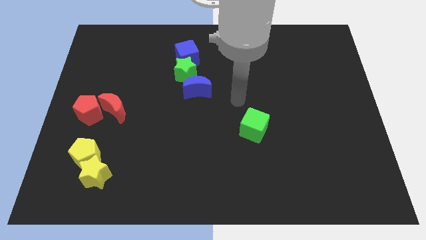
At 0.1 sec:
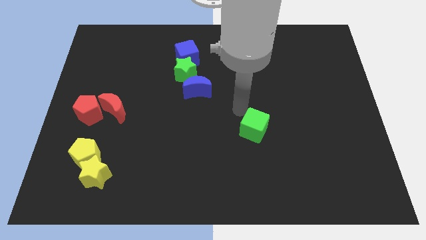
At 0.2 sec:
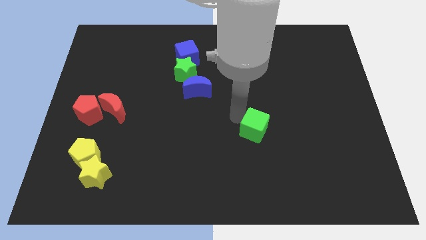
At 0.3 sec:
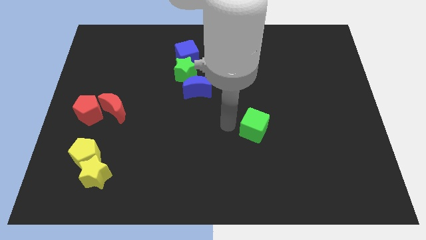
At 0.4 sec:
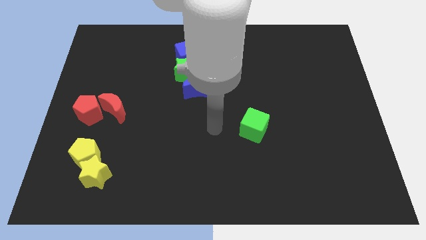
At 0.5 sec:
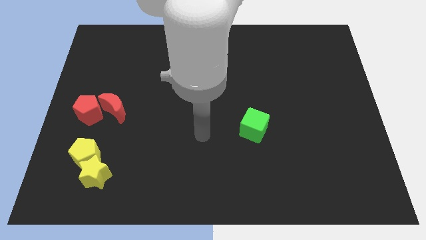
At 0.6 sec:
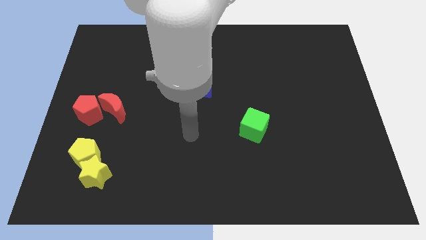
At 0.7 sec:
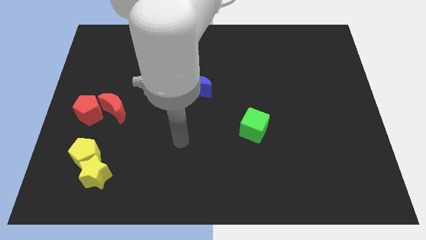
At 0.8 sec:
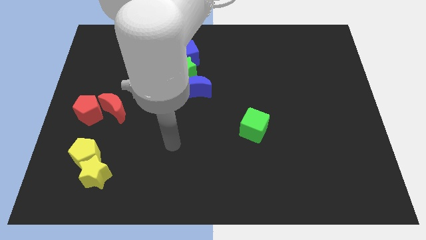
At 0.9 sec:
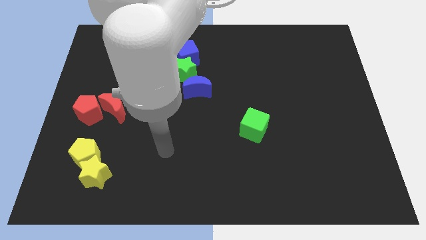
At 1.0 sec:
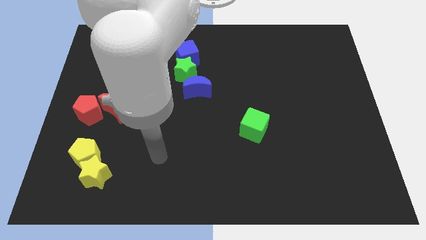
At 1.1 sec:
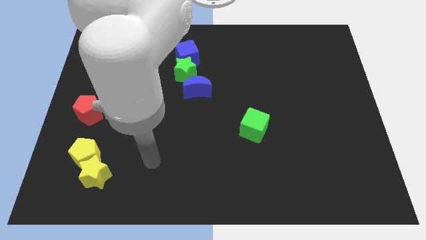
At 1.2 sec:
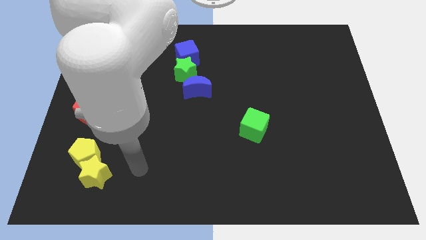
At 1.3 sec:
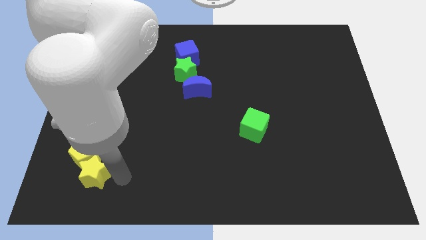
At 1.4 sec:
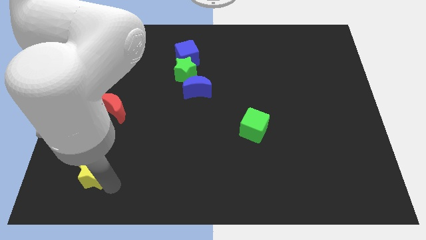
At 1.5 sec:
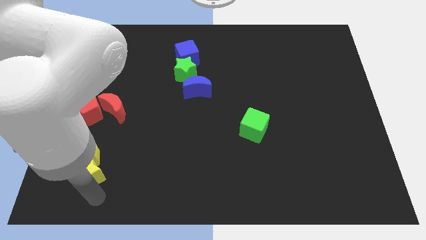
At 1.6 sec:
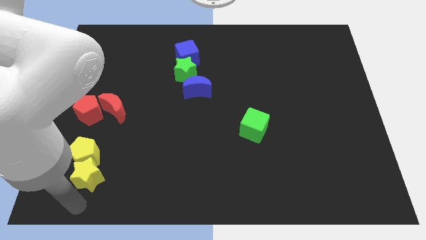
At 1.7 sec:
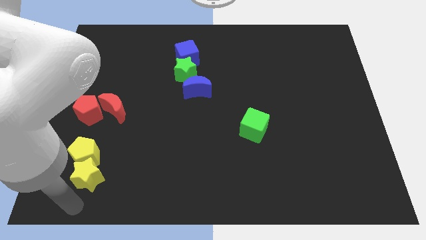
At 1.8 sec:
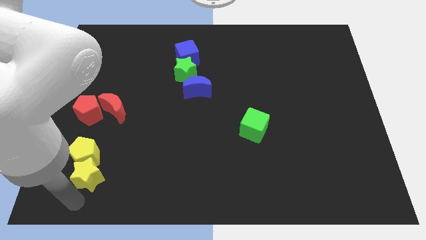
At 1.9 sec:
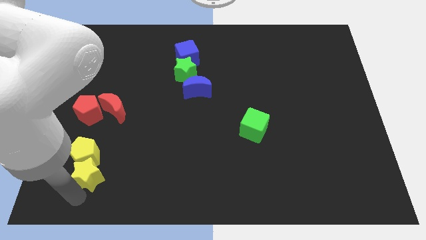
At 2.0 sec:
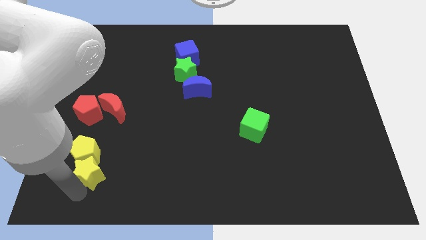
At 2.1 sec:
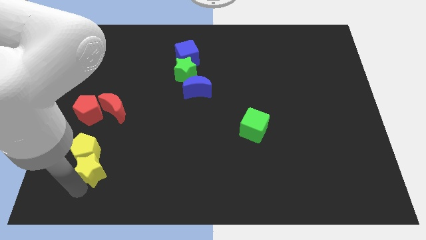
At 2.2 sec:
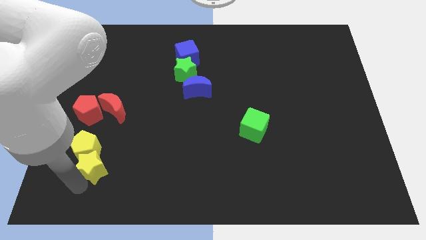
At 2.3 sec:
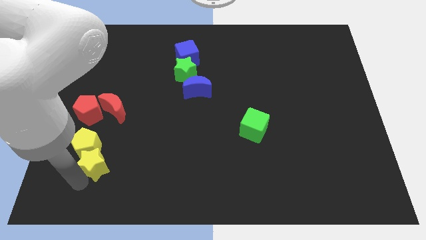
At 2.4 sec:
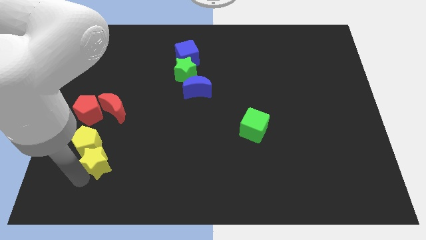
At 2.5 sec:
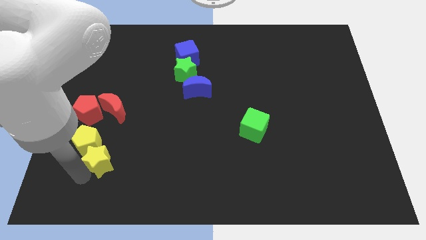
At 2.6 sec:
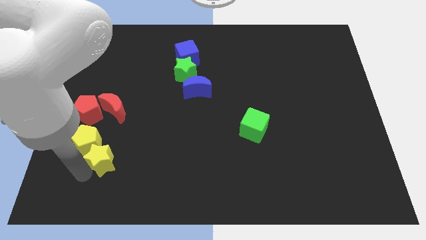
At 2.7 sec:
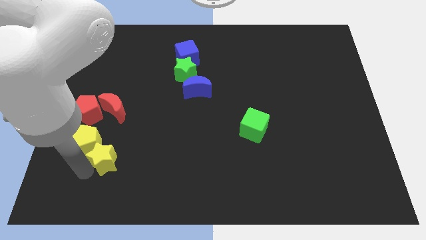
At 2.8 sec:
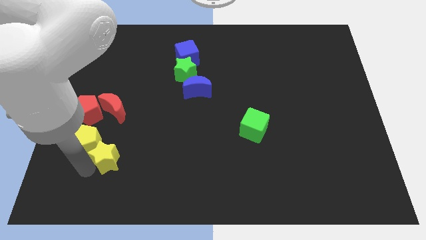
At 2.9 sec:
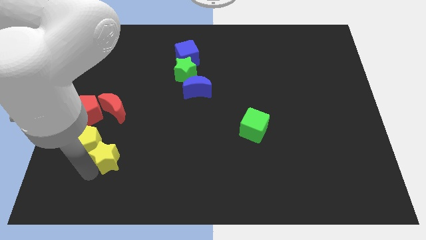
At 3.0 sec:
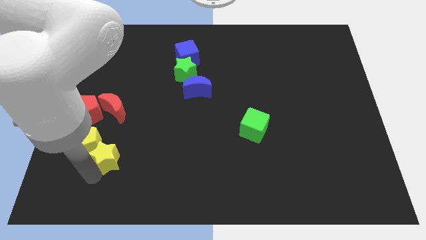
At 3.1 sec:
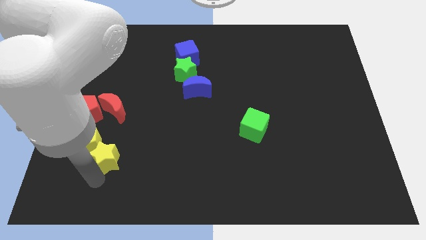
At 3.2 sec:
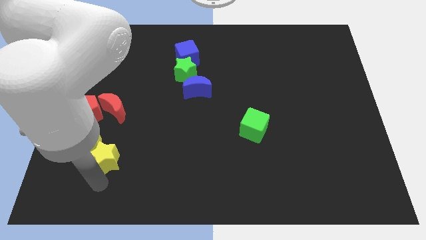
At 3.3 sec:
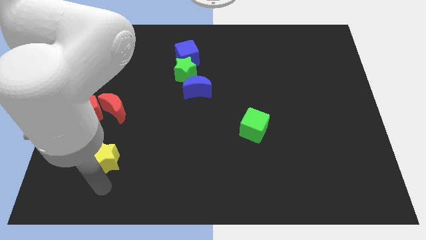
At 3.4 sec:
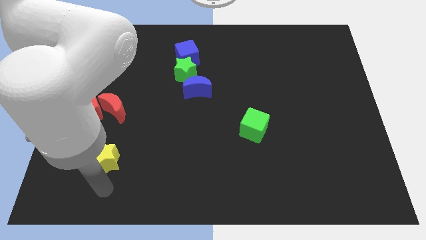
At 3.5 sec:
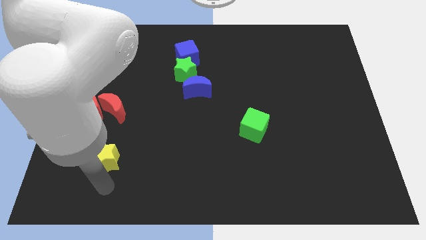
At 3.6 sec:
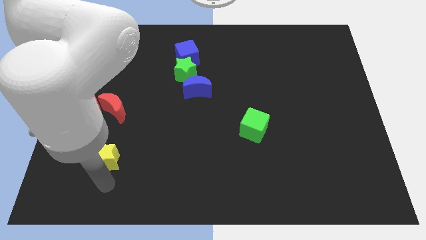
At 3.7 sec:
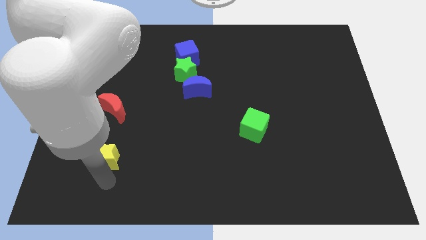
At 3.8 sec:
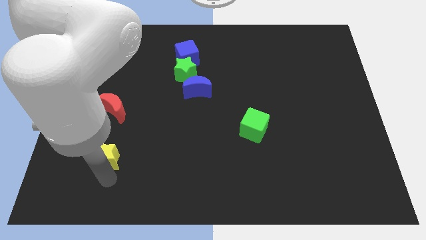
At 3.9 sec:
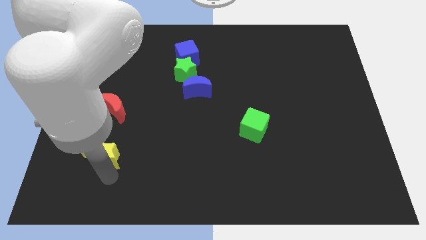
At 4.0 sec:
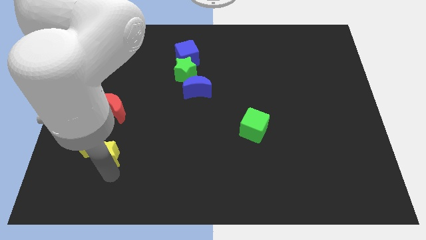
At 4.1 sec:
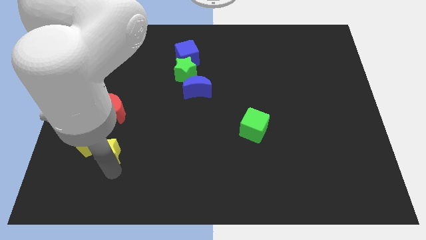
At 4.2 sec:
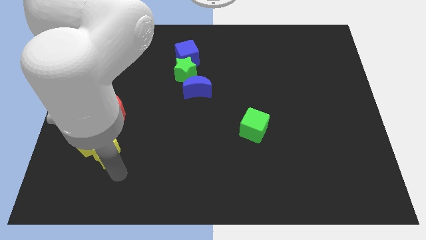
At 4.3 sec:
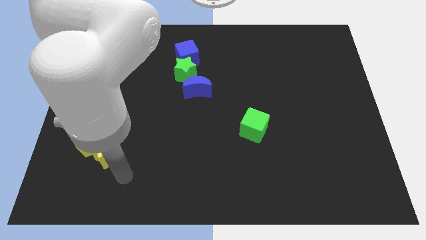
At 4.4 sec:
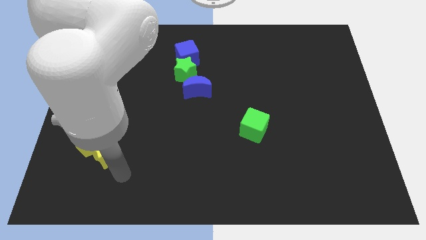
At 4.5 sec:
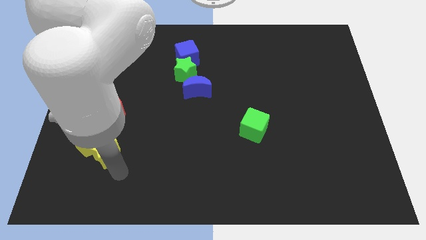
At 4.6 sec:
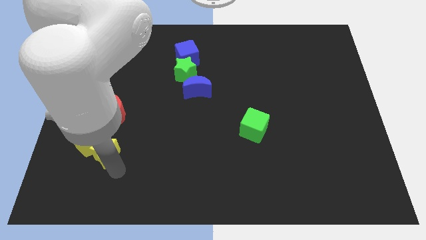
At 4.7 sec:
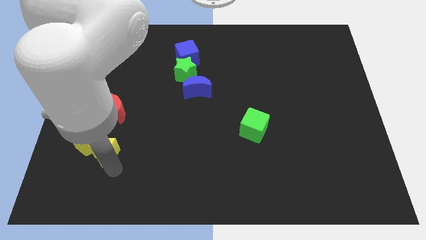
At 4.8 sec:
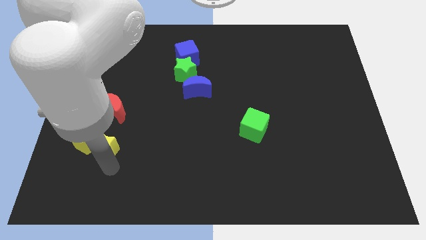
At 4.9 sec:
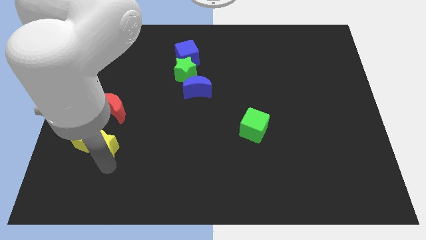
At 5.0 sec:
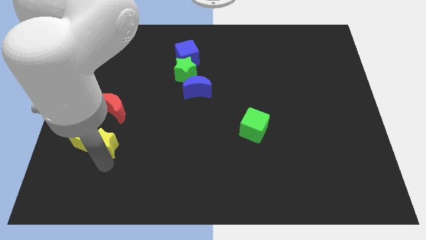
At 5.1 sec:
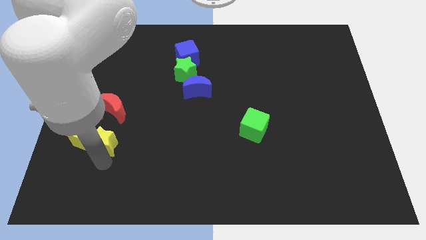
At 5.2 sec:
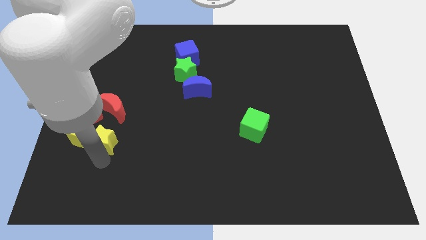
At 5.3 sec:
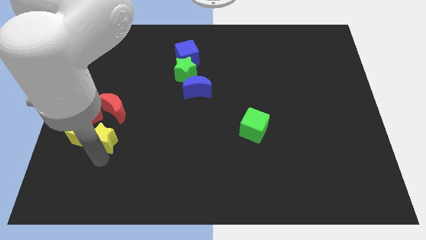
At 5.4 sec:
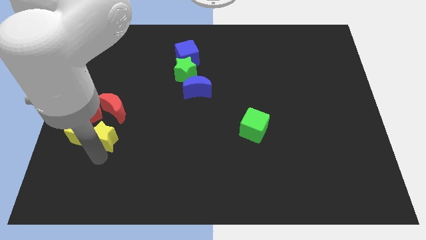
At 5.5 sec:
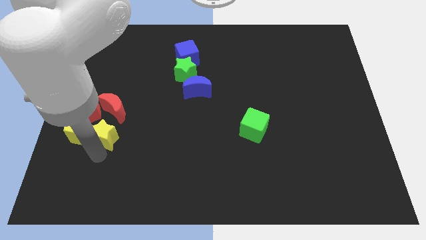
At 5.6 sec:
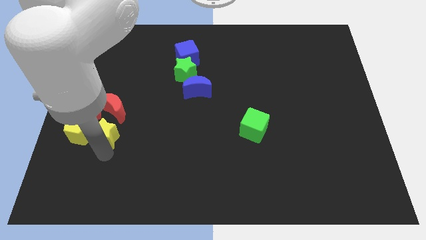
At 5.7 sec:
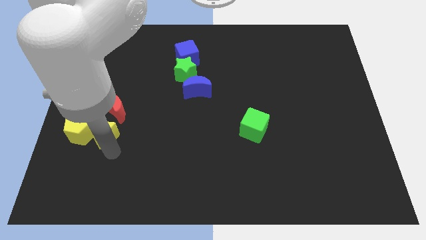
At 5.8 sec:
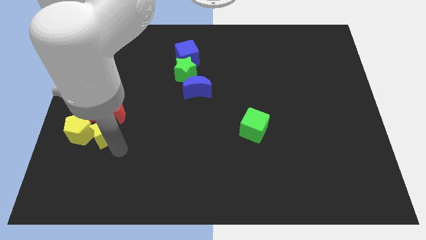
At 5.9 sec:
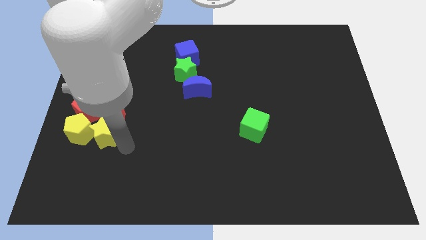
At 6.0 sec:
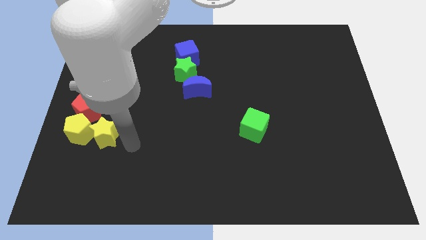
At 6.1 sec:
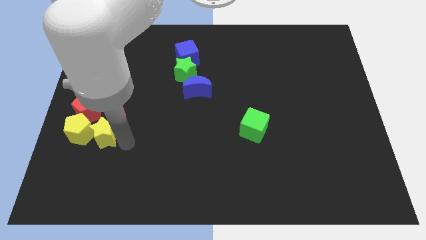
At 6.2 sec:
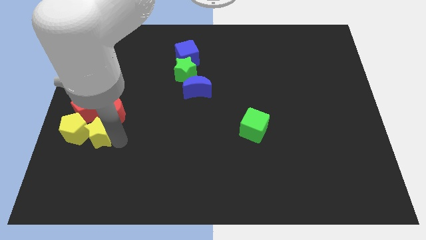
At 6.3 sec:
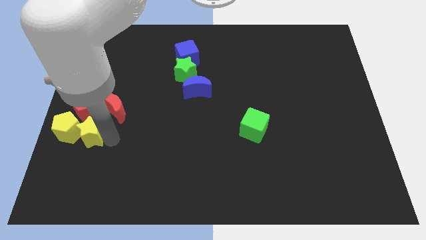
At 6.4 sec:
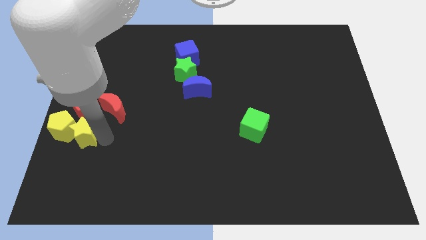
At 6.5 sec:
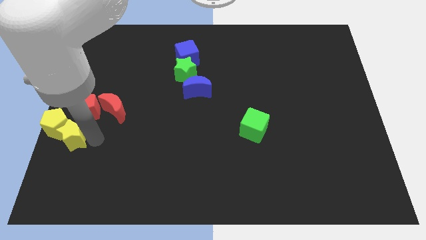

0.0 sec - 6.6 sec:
push the yellow star to the left side
